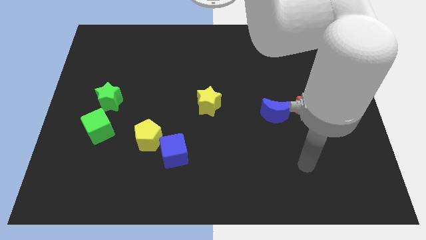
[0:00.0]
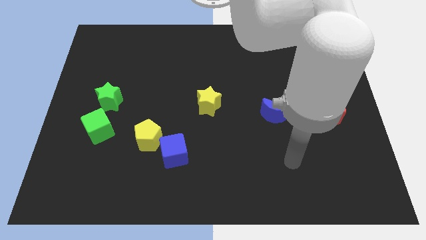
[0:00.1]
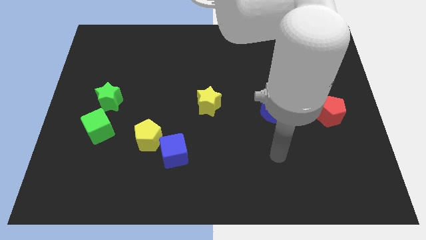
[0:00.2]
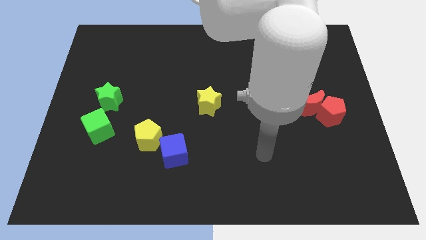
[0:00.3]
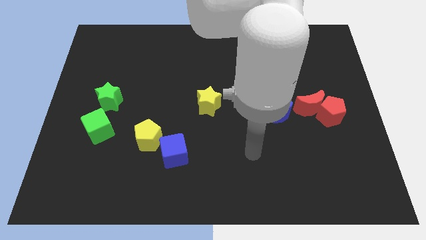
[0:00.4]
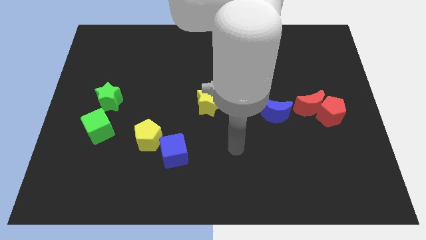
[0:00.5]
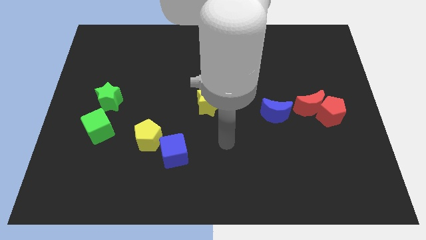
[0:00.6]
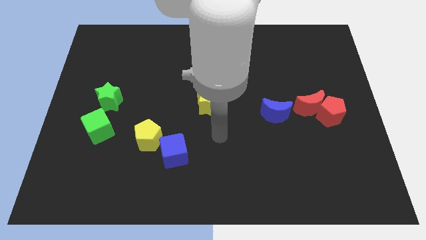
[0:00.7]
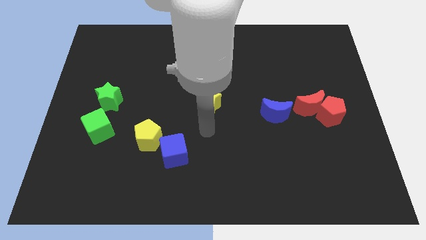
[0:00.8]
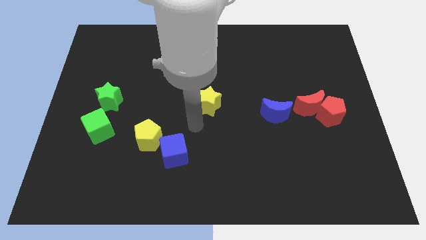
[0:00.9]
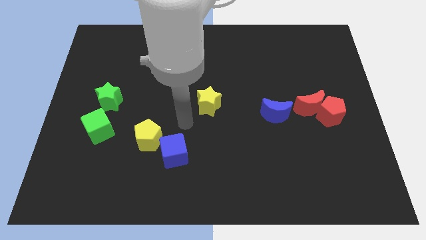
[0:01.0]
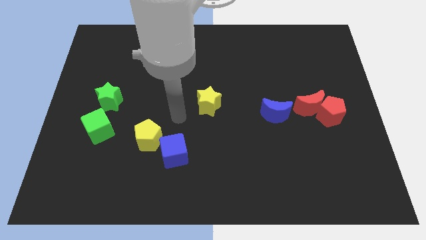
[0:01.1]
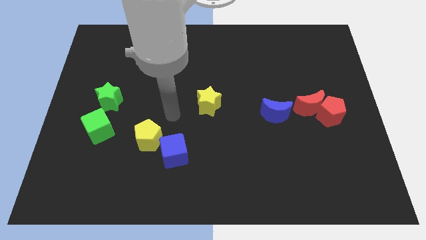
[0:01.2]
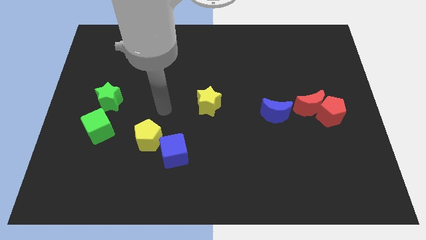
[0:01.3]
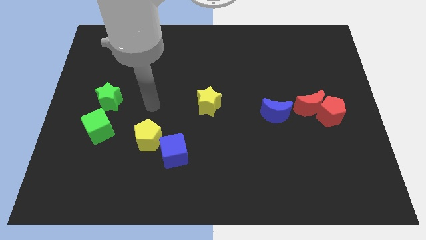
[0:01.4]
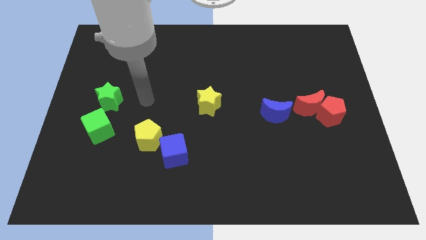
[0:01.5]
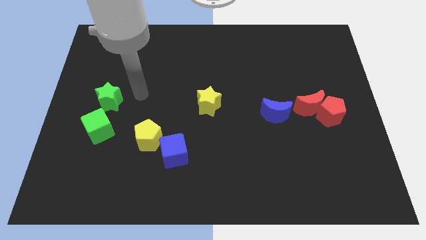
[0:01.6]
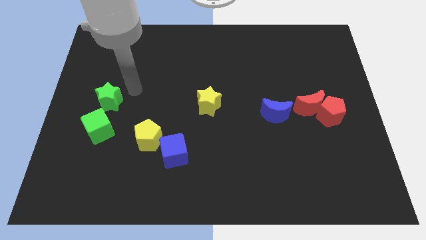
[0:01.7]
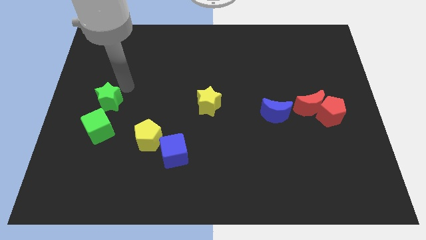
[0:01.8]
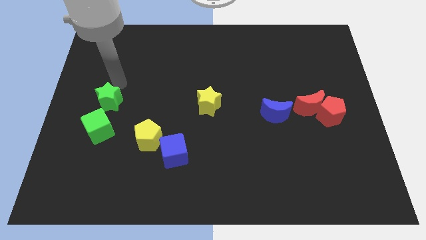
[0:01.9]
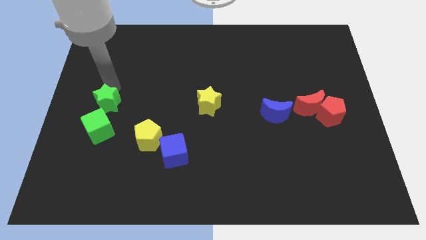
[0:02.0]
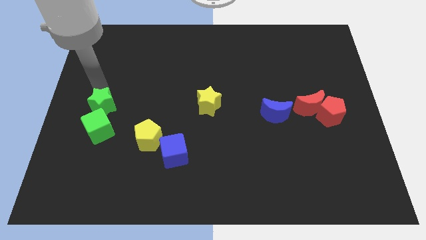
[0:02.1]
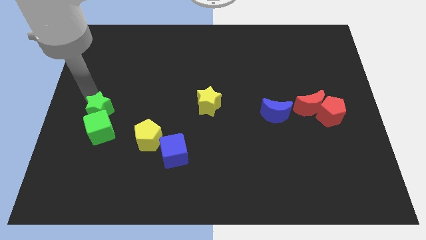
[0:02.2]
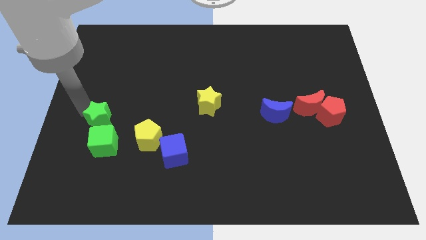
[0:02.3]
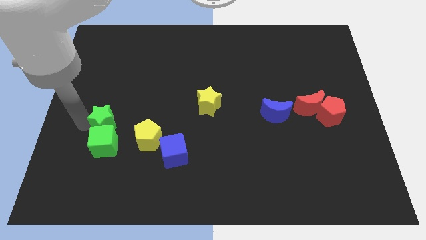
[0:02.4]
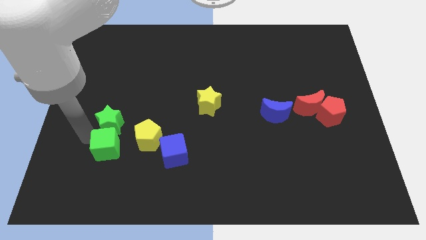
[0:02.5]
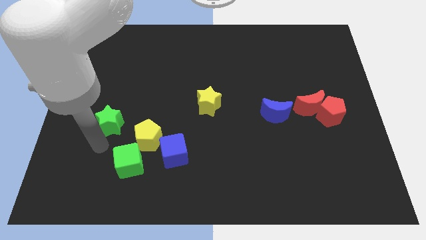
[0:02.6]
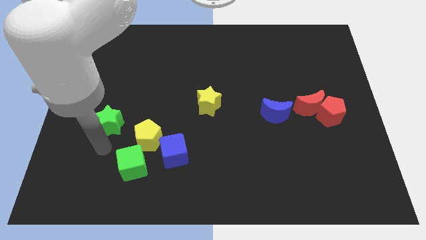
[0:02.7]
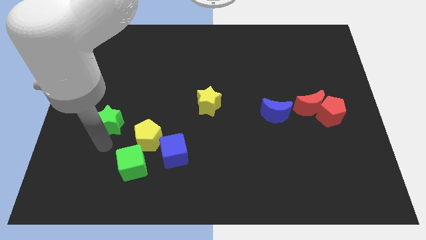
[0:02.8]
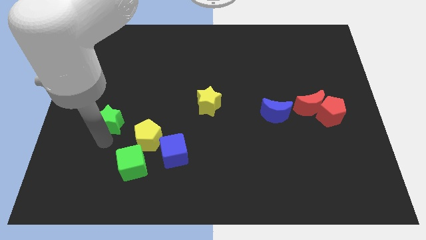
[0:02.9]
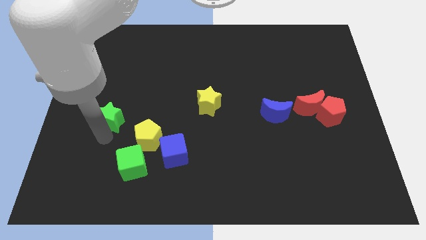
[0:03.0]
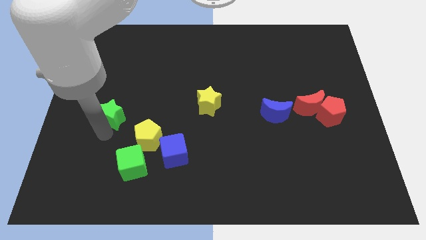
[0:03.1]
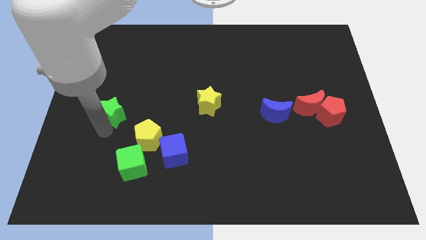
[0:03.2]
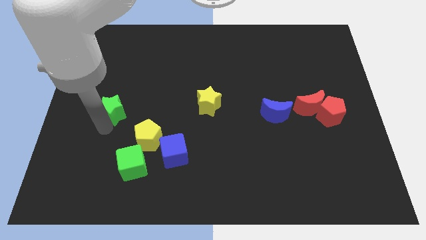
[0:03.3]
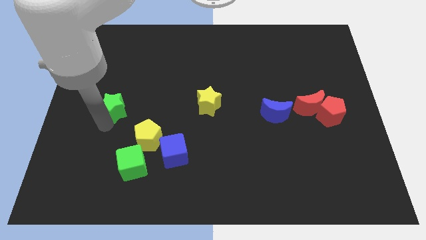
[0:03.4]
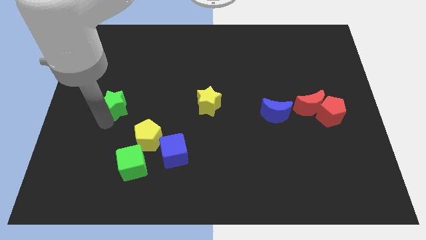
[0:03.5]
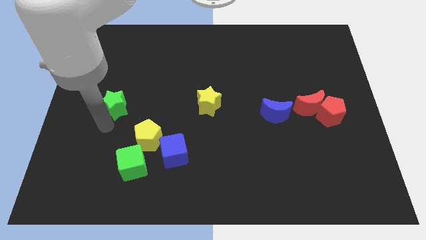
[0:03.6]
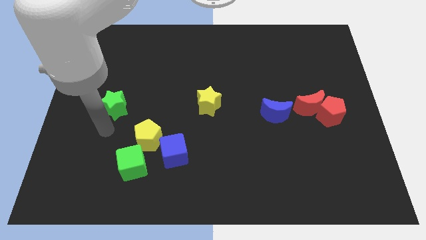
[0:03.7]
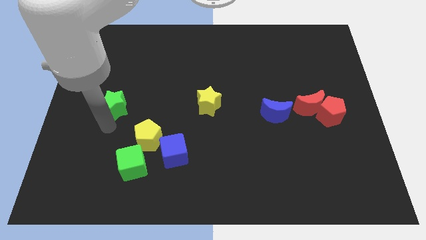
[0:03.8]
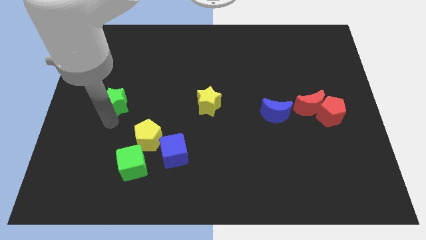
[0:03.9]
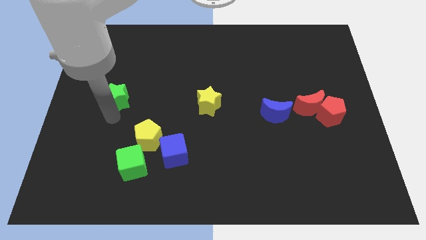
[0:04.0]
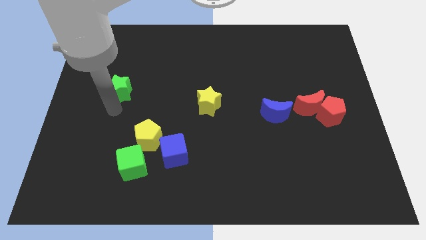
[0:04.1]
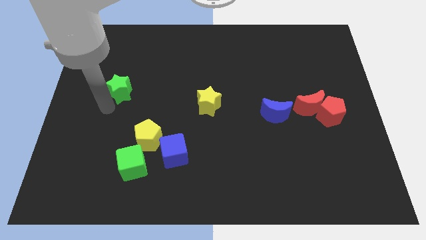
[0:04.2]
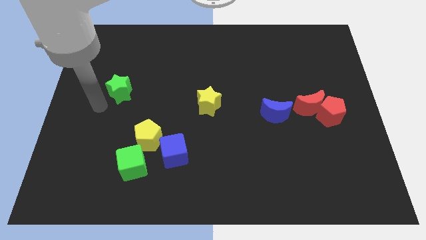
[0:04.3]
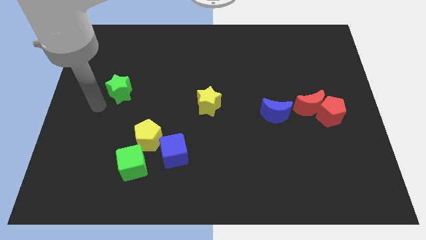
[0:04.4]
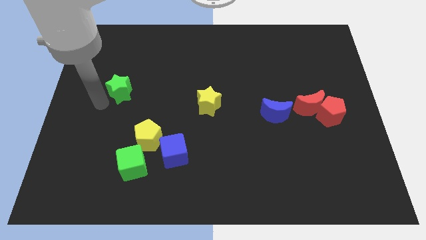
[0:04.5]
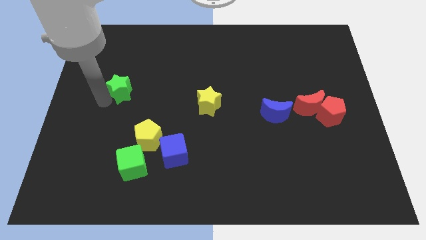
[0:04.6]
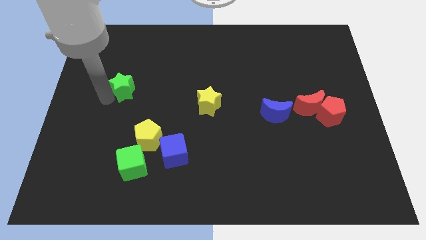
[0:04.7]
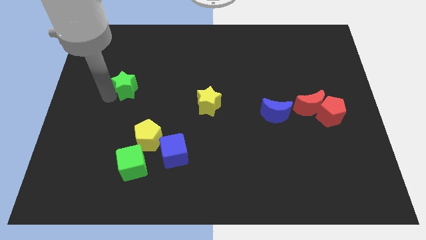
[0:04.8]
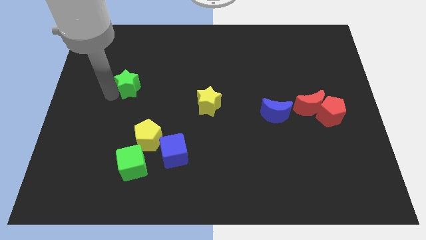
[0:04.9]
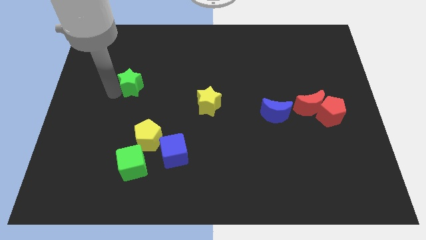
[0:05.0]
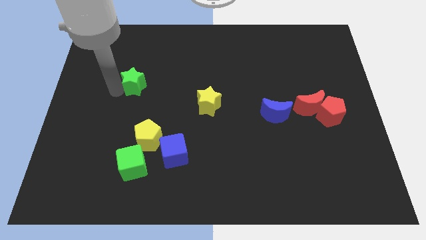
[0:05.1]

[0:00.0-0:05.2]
move the green star a bit up and right diagonally

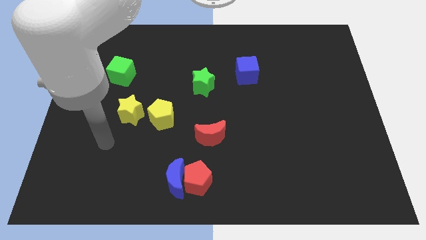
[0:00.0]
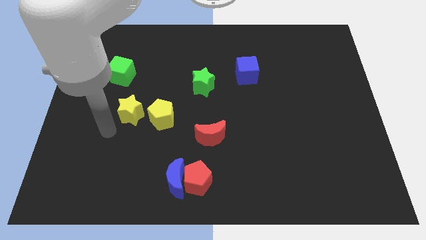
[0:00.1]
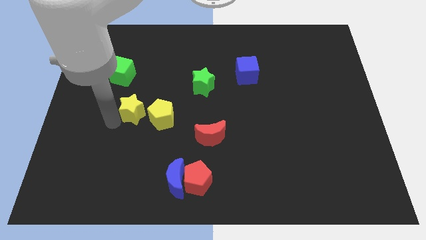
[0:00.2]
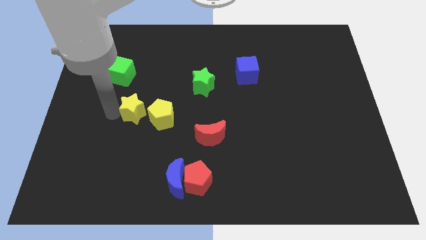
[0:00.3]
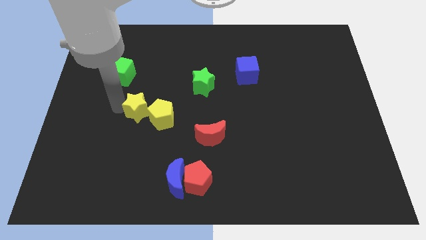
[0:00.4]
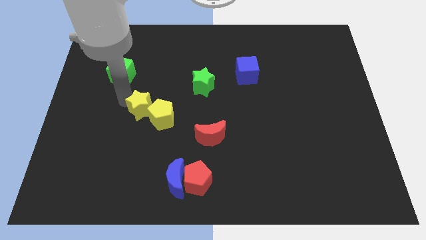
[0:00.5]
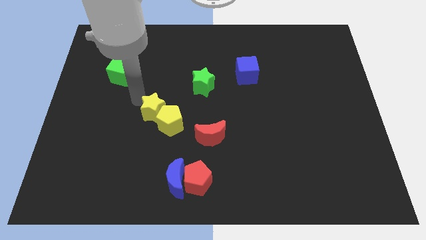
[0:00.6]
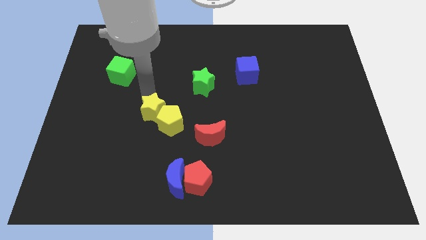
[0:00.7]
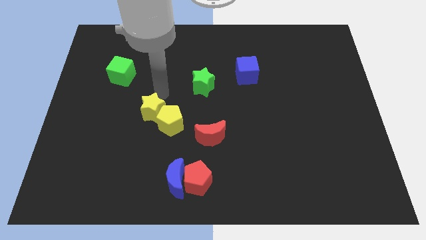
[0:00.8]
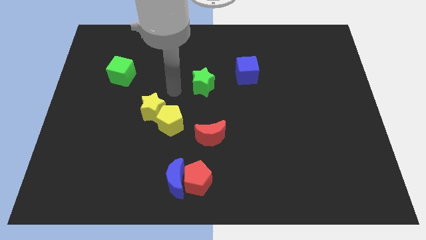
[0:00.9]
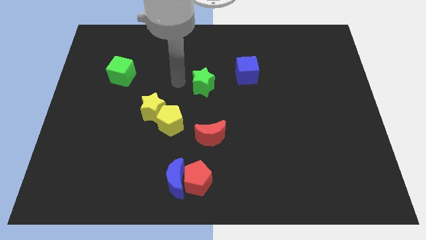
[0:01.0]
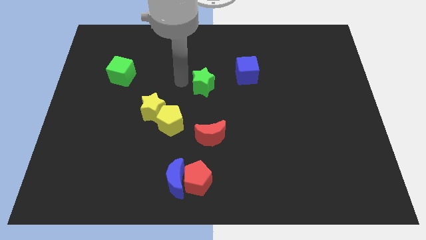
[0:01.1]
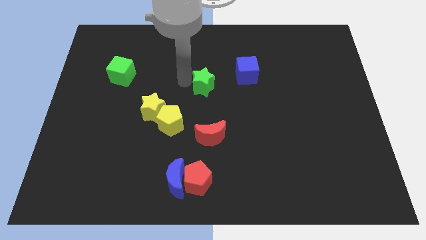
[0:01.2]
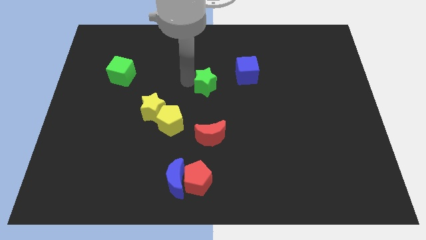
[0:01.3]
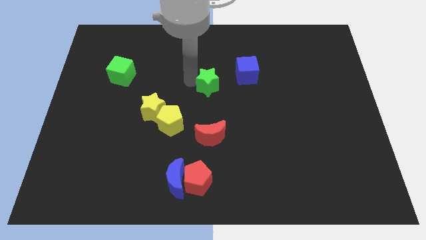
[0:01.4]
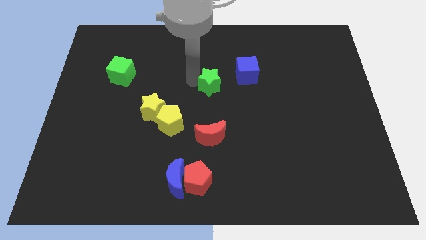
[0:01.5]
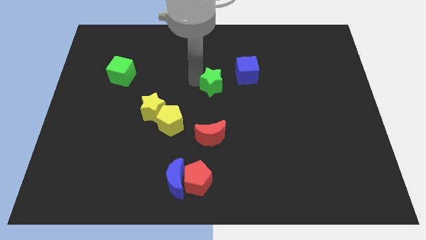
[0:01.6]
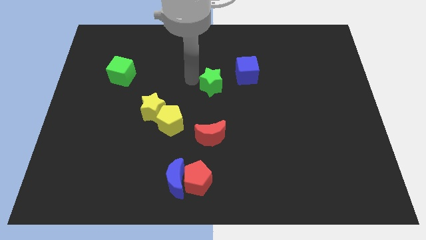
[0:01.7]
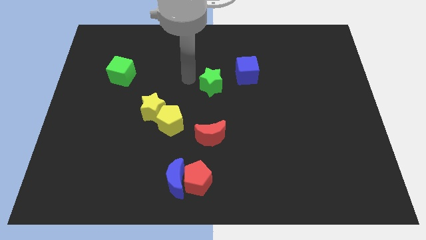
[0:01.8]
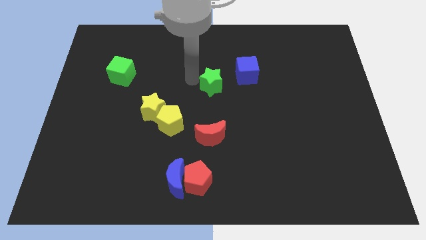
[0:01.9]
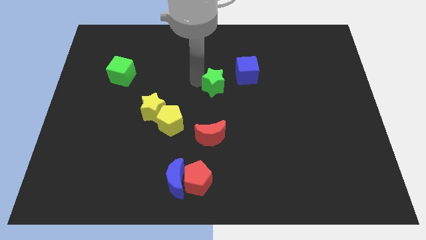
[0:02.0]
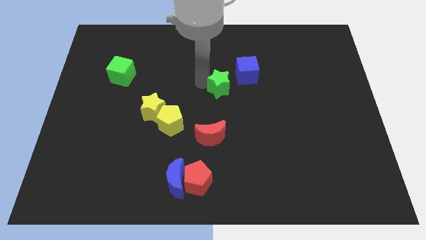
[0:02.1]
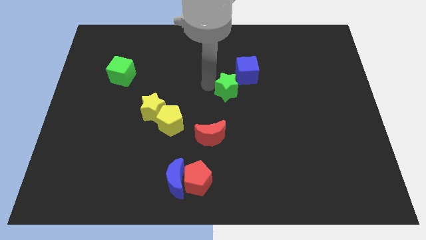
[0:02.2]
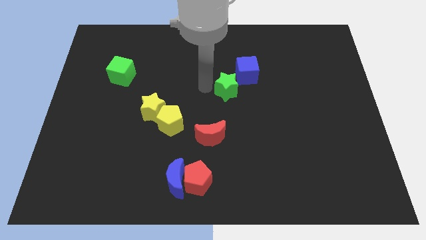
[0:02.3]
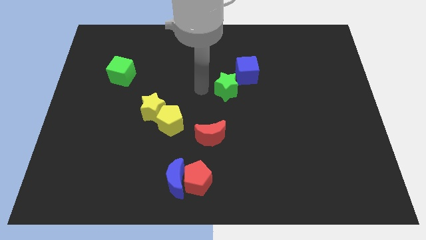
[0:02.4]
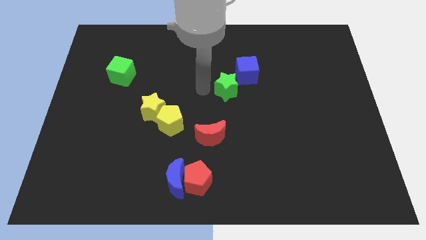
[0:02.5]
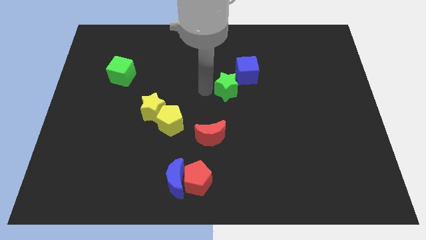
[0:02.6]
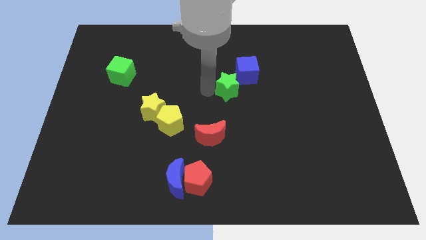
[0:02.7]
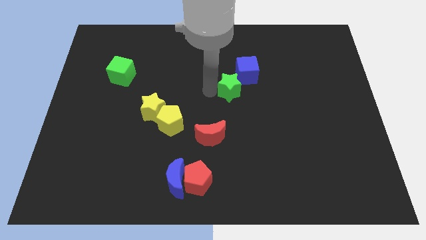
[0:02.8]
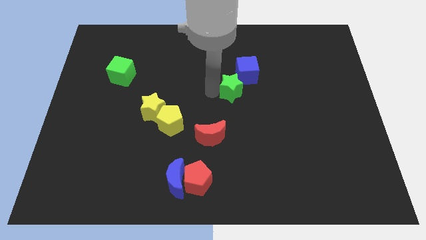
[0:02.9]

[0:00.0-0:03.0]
move the green star a bit to the right
